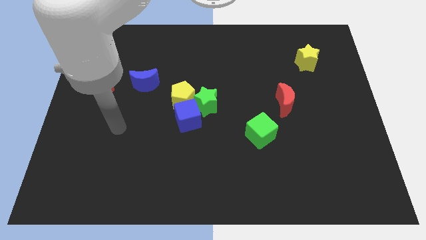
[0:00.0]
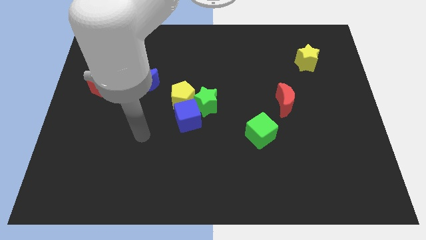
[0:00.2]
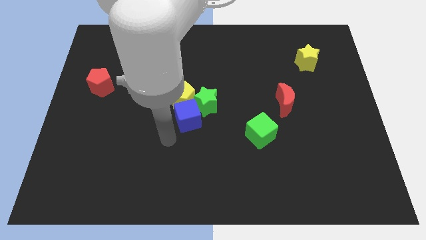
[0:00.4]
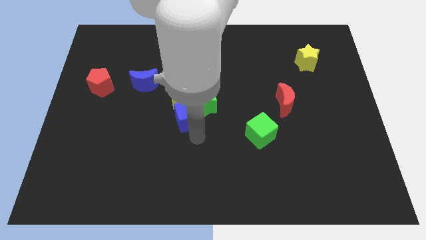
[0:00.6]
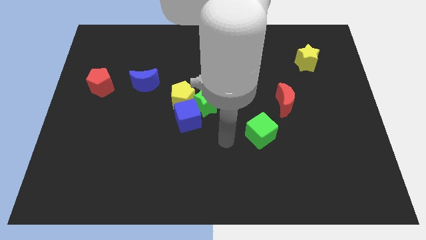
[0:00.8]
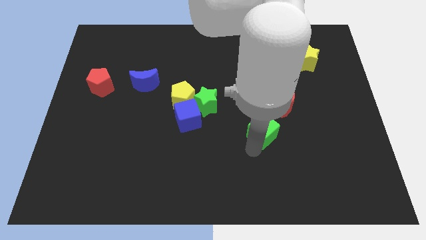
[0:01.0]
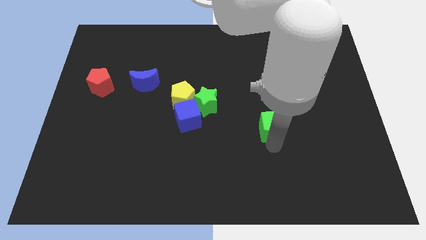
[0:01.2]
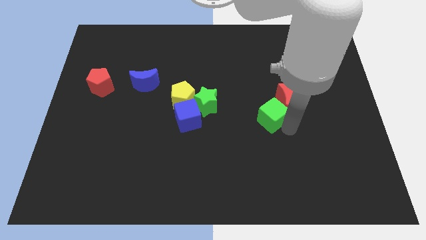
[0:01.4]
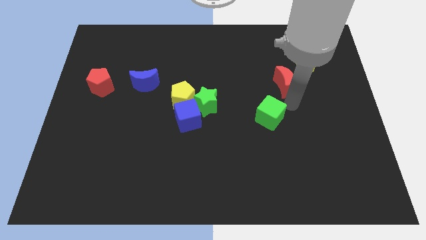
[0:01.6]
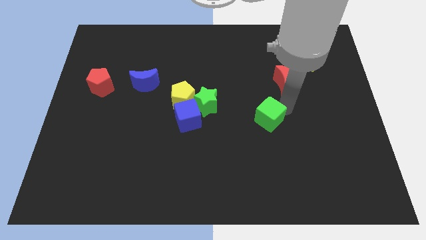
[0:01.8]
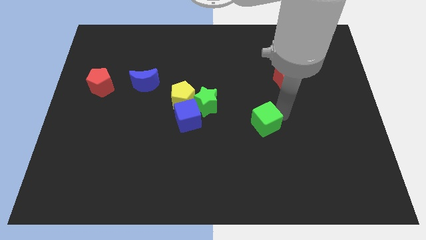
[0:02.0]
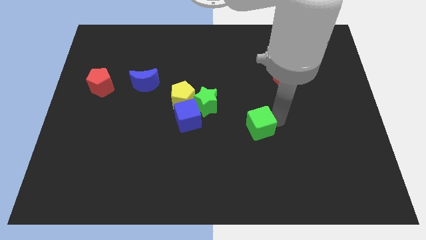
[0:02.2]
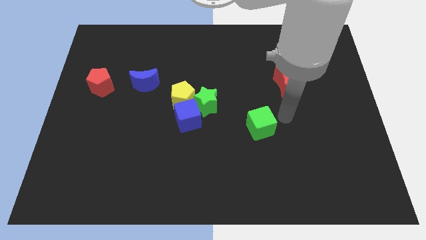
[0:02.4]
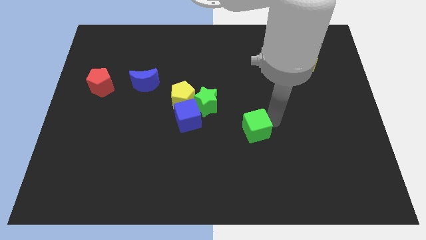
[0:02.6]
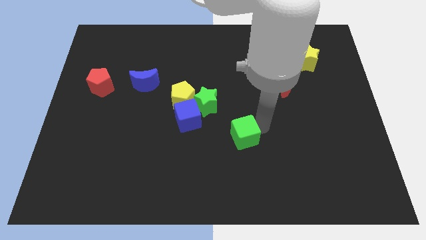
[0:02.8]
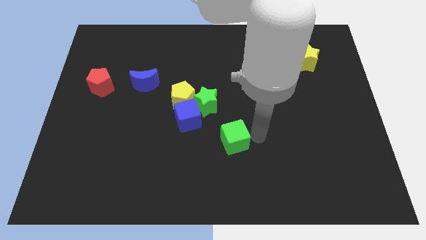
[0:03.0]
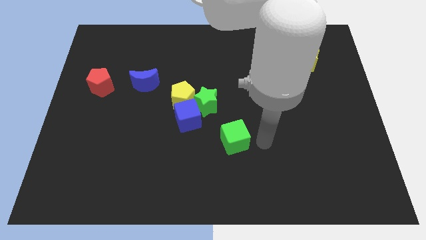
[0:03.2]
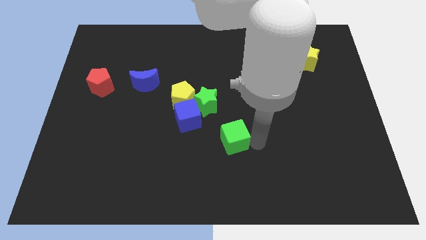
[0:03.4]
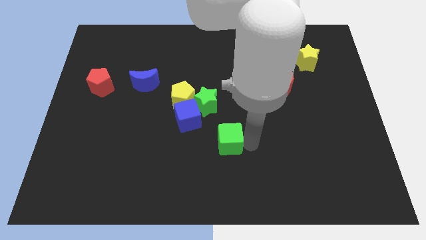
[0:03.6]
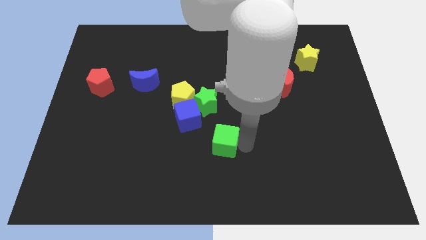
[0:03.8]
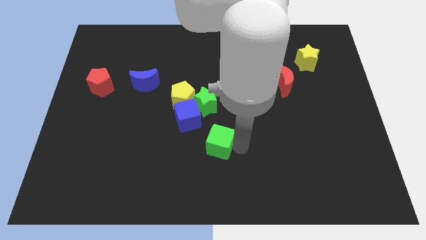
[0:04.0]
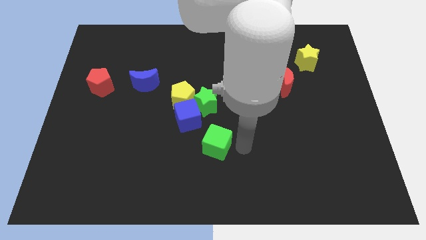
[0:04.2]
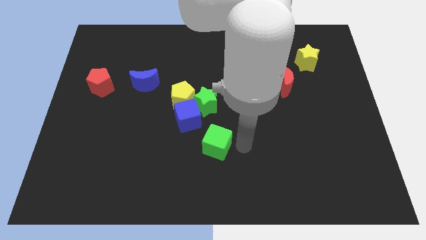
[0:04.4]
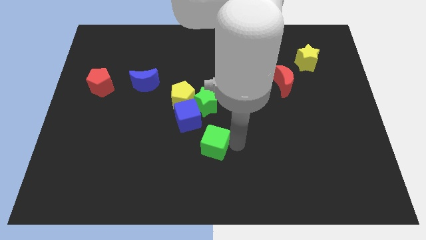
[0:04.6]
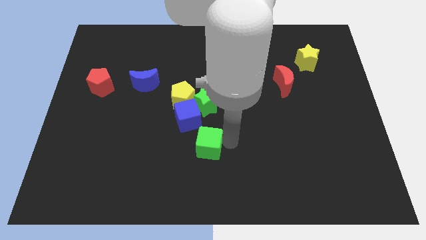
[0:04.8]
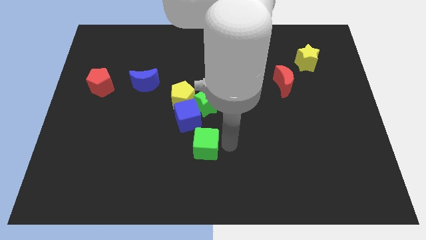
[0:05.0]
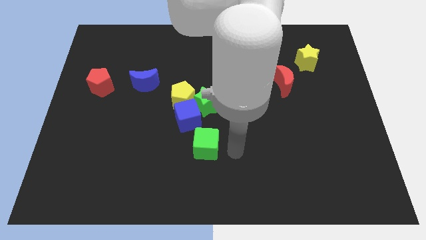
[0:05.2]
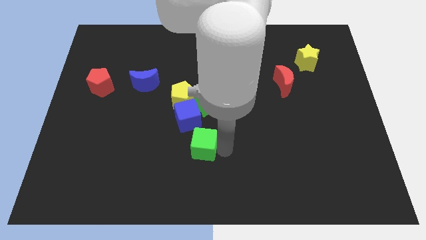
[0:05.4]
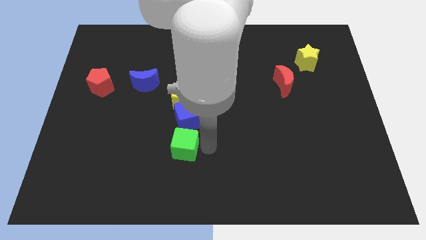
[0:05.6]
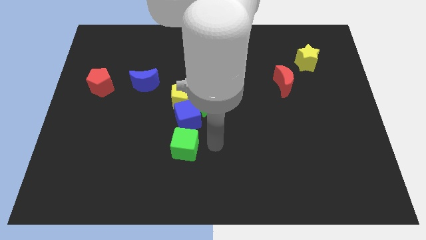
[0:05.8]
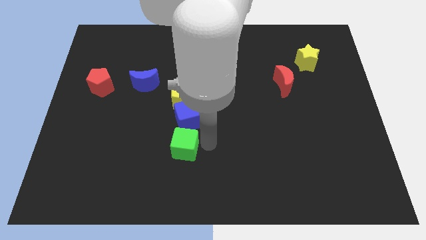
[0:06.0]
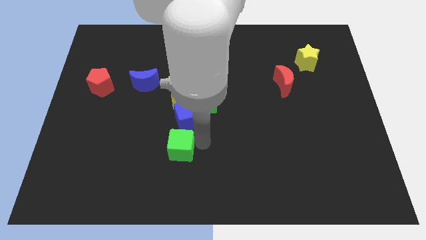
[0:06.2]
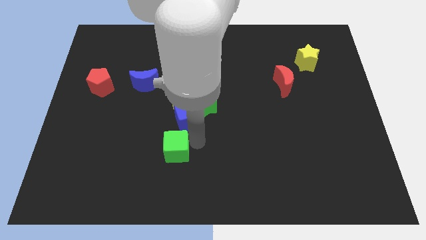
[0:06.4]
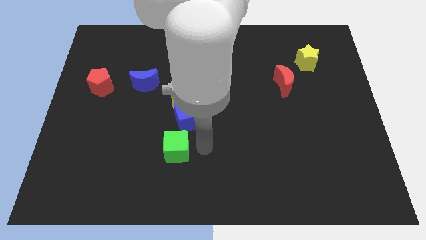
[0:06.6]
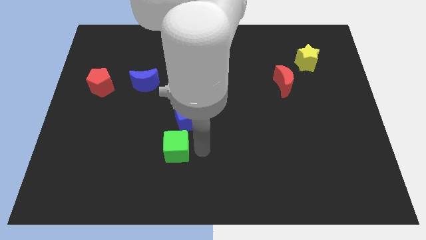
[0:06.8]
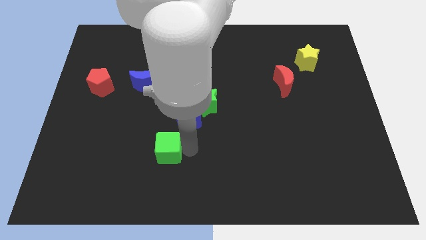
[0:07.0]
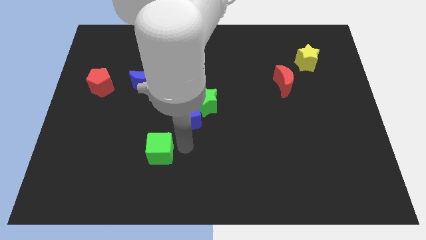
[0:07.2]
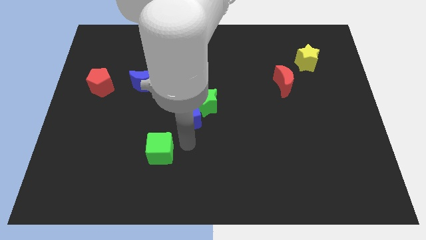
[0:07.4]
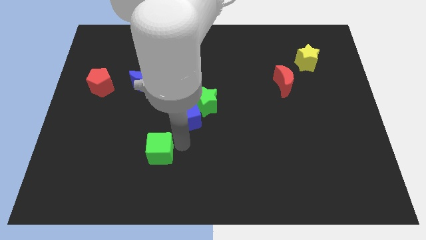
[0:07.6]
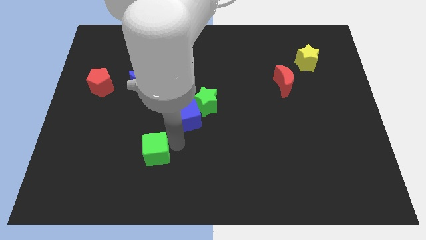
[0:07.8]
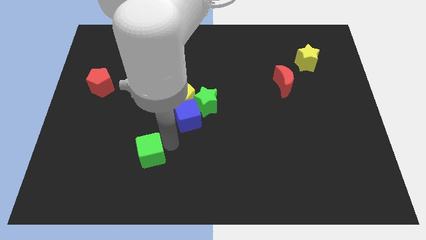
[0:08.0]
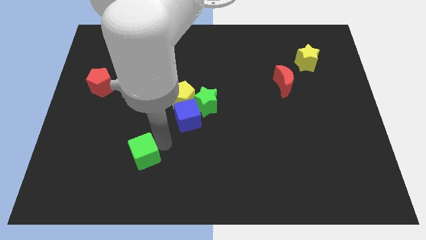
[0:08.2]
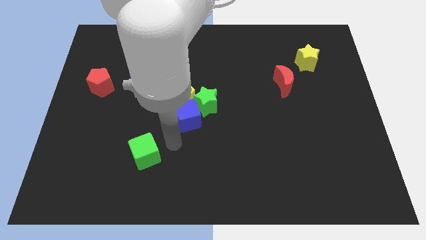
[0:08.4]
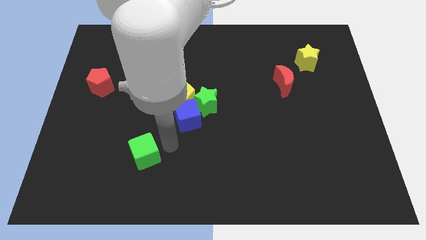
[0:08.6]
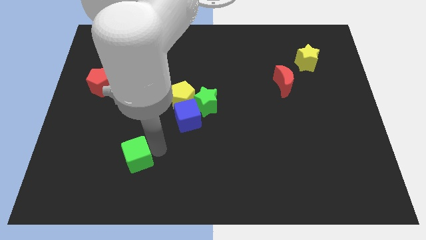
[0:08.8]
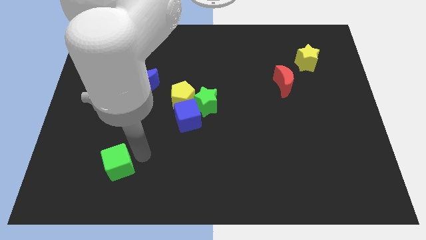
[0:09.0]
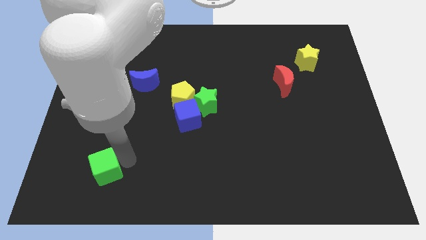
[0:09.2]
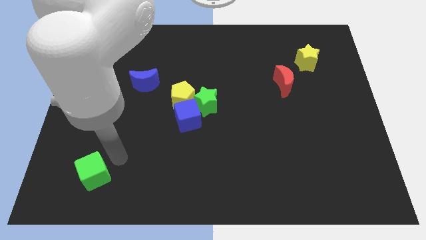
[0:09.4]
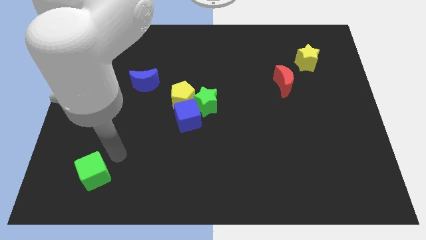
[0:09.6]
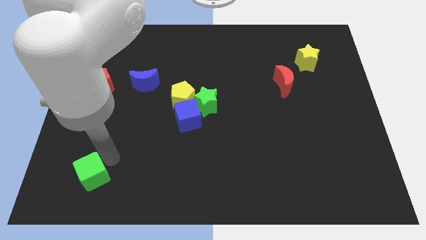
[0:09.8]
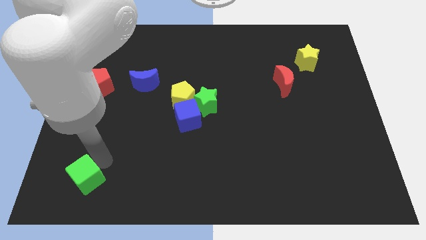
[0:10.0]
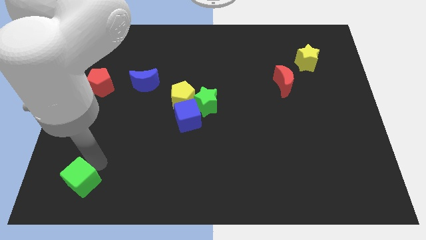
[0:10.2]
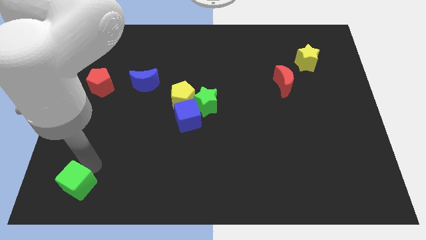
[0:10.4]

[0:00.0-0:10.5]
slide the green cube to the bottom left

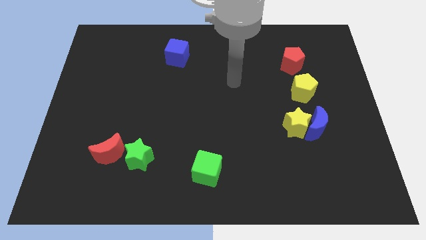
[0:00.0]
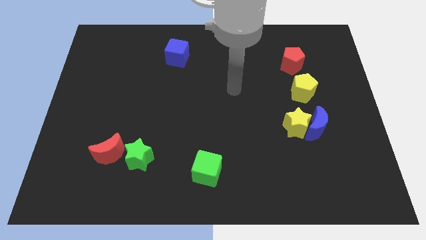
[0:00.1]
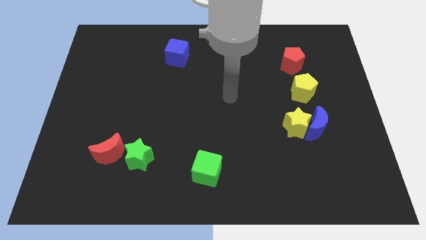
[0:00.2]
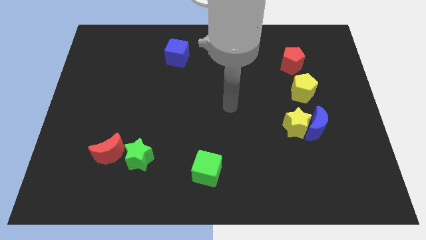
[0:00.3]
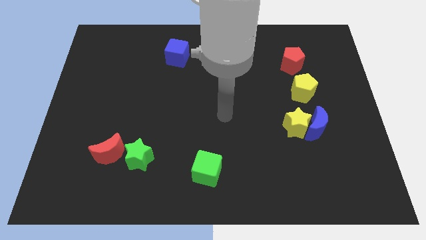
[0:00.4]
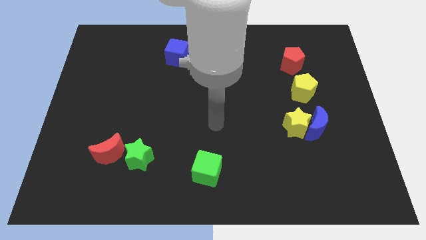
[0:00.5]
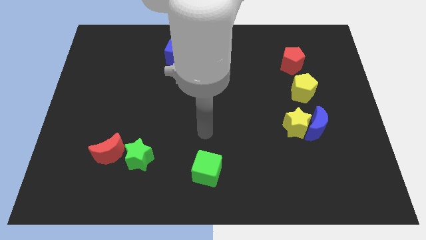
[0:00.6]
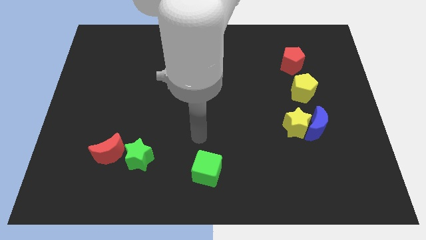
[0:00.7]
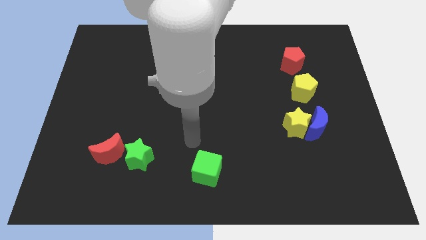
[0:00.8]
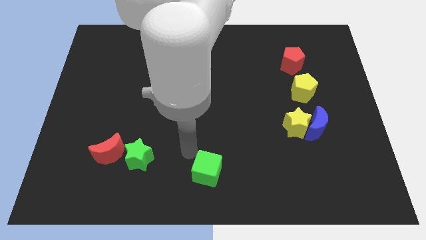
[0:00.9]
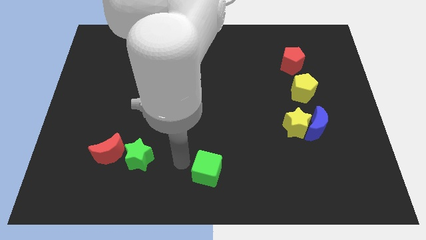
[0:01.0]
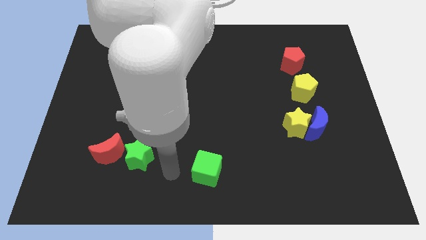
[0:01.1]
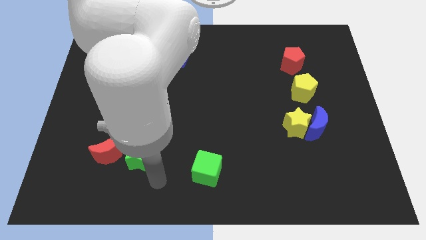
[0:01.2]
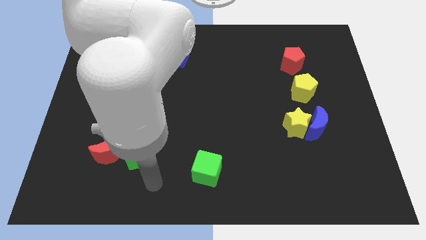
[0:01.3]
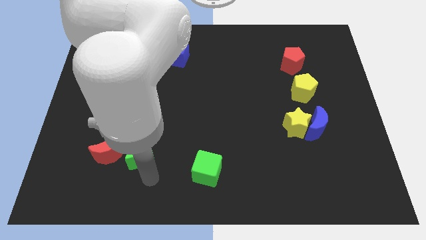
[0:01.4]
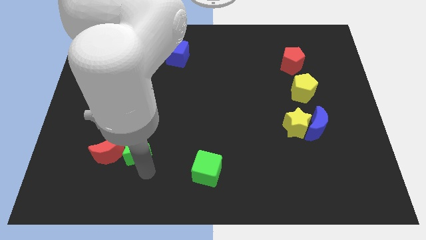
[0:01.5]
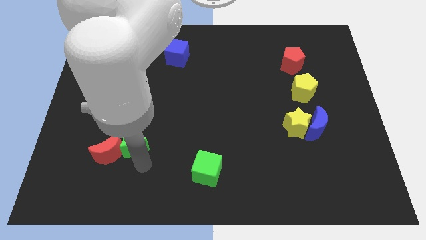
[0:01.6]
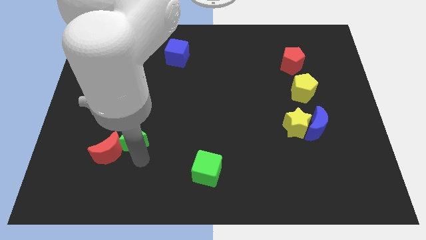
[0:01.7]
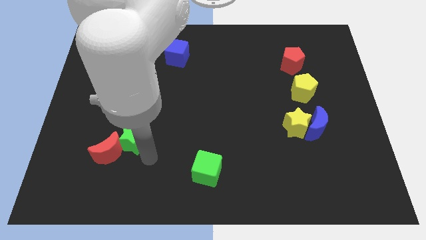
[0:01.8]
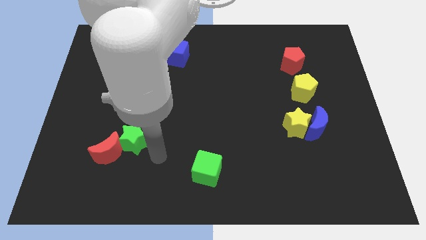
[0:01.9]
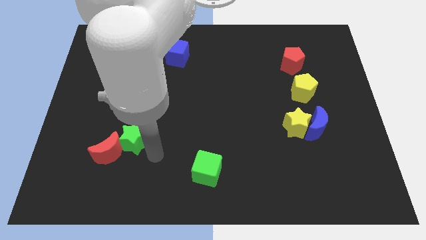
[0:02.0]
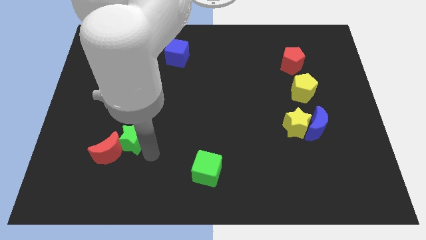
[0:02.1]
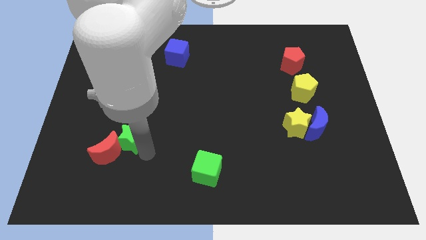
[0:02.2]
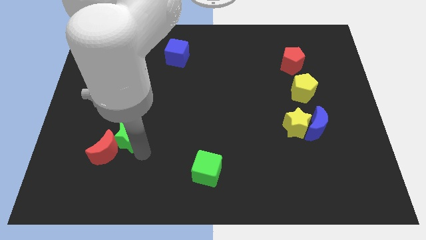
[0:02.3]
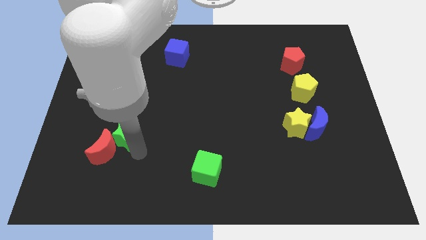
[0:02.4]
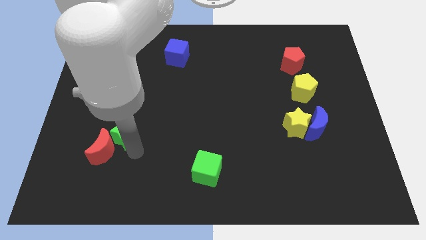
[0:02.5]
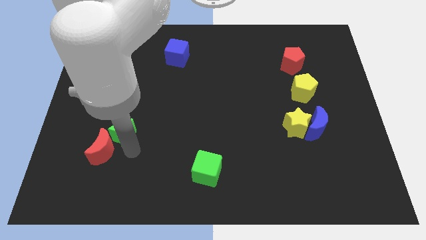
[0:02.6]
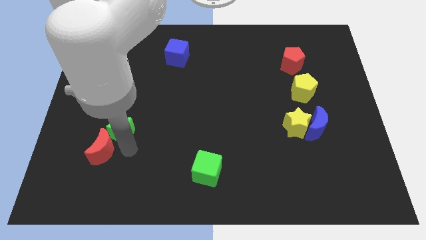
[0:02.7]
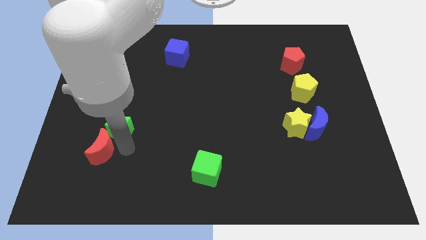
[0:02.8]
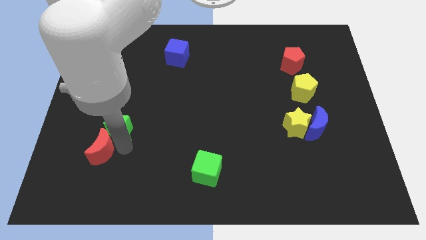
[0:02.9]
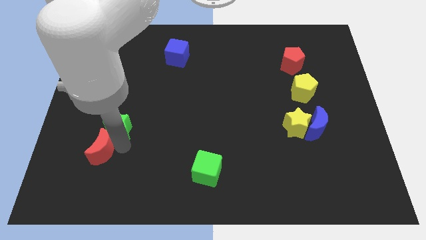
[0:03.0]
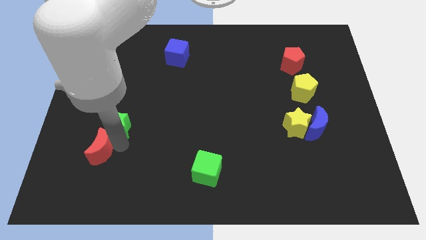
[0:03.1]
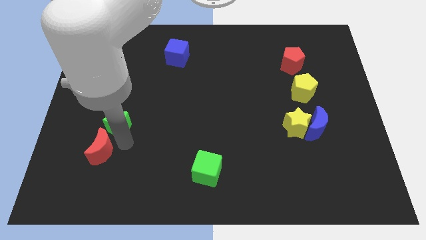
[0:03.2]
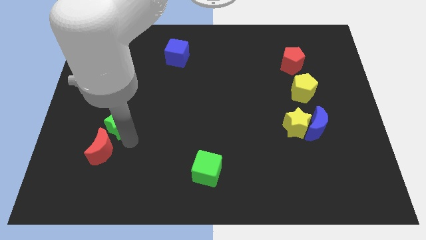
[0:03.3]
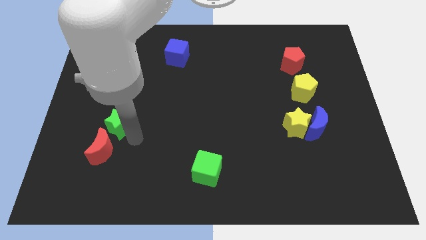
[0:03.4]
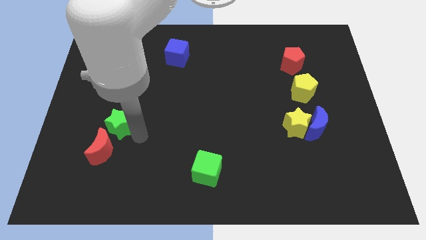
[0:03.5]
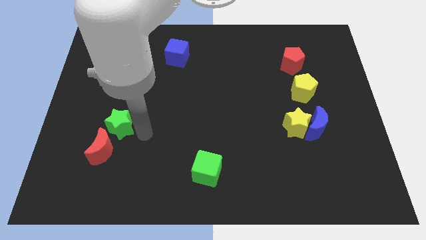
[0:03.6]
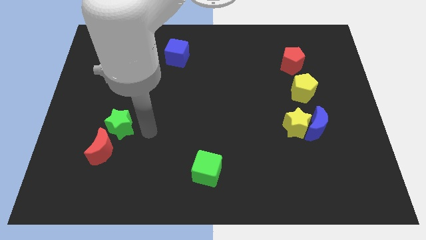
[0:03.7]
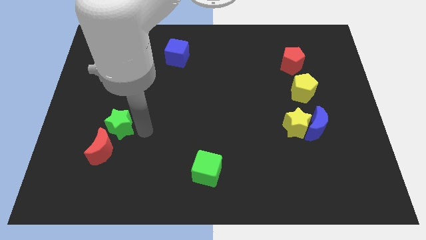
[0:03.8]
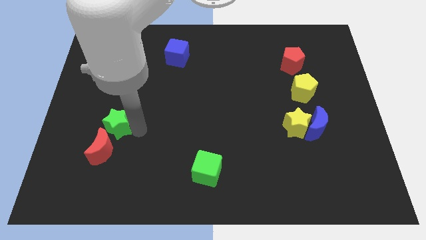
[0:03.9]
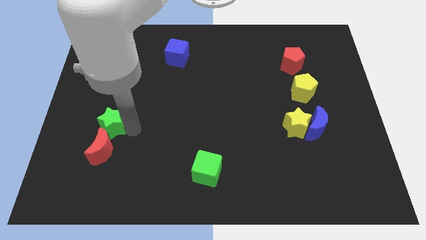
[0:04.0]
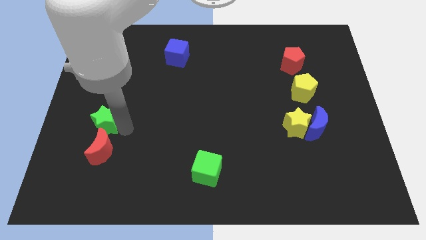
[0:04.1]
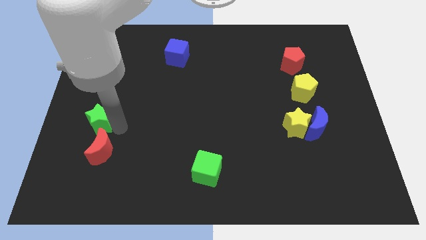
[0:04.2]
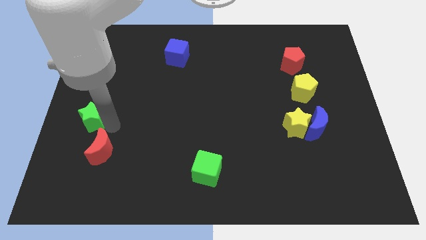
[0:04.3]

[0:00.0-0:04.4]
put the green star to the center left
